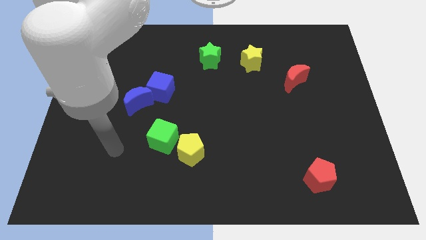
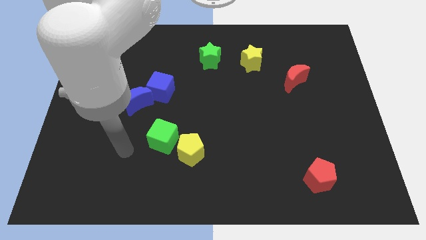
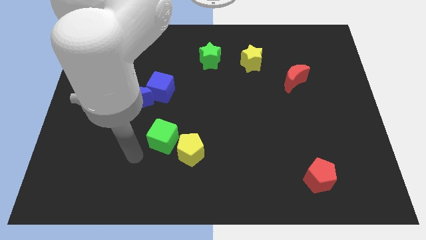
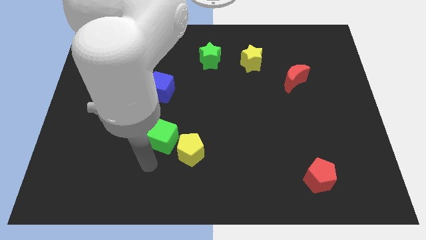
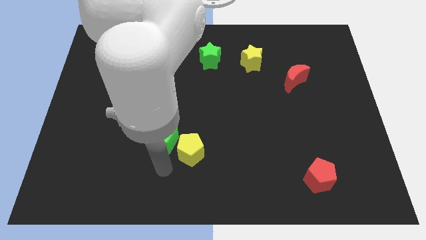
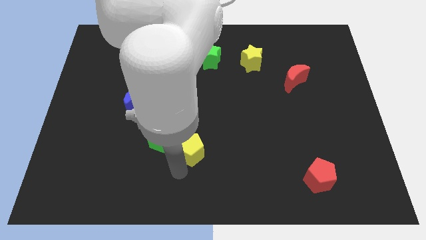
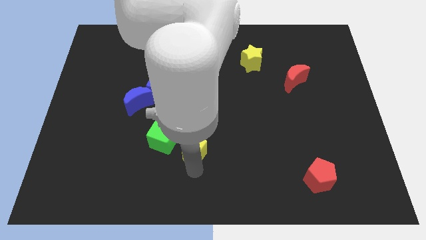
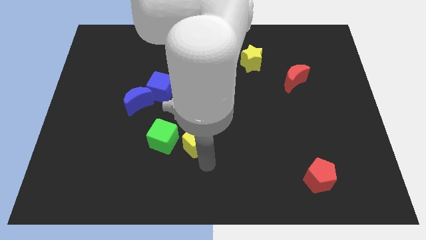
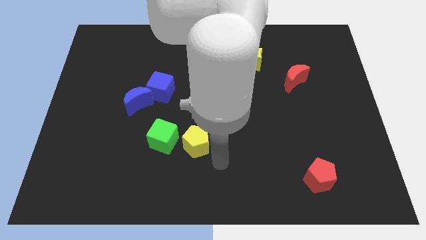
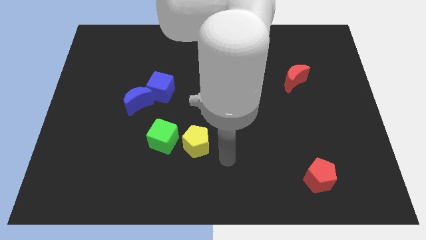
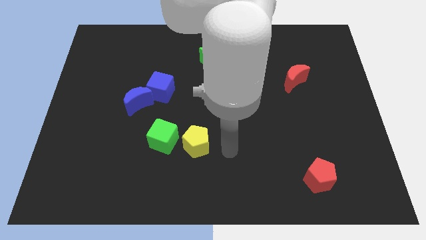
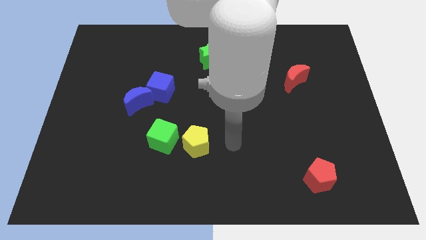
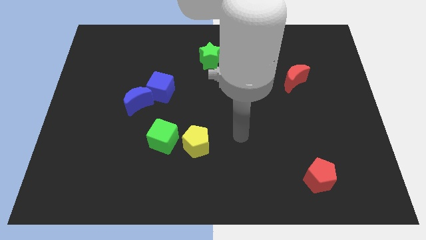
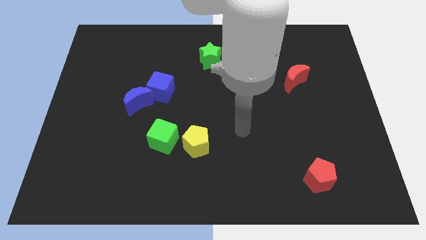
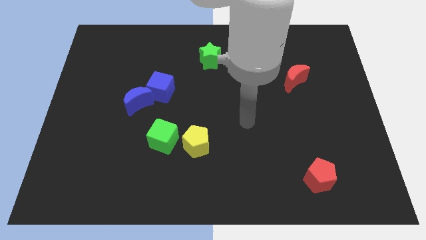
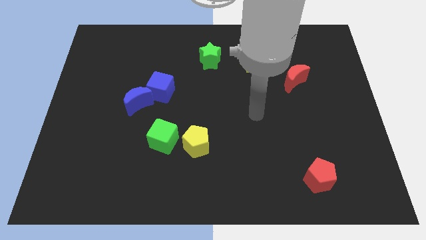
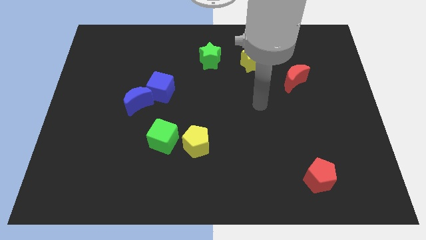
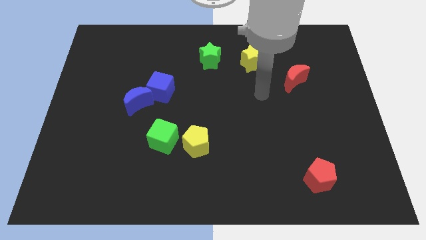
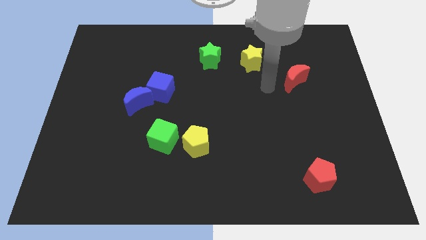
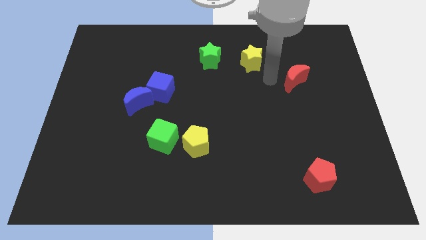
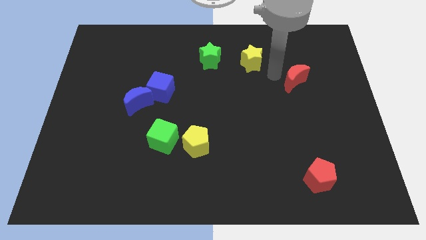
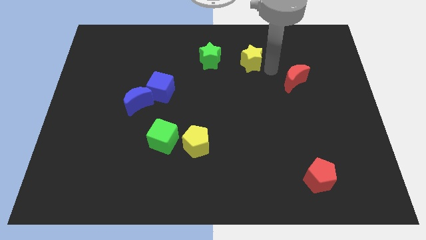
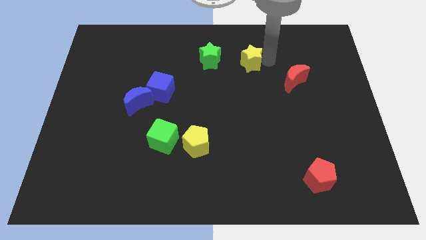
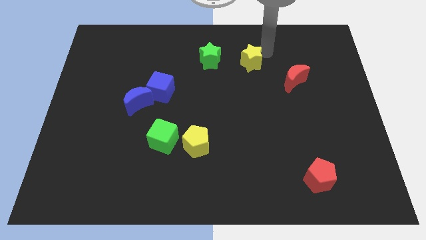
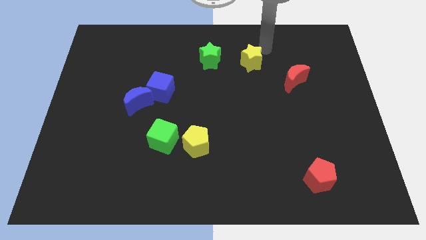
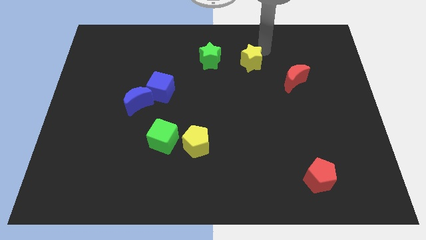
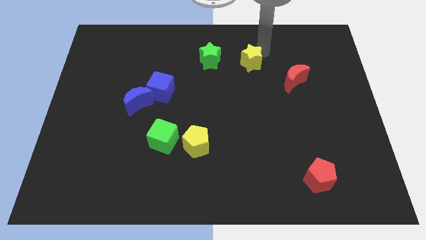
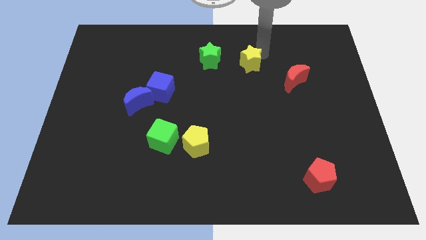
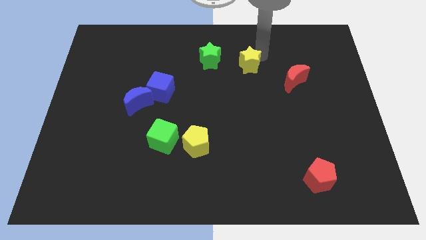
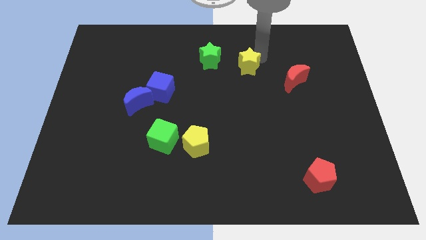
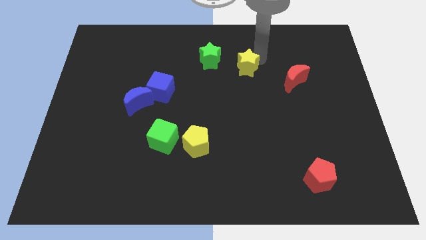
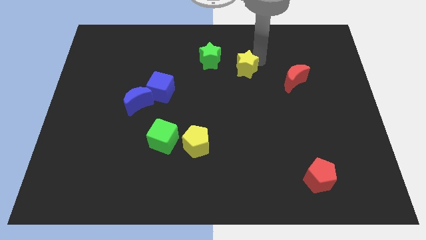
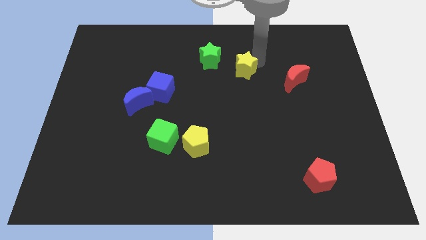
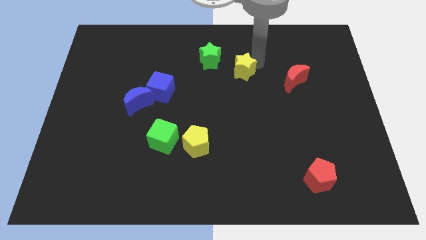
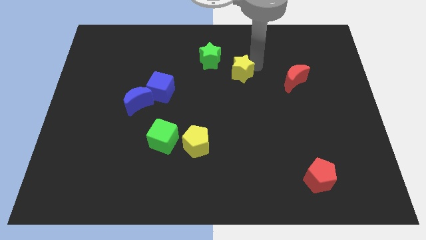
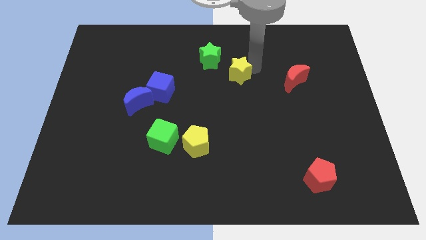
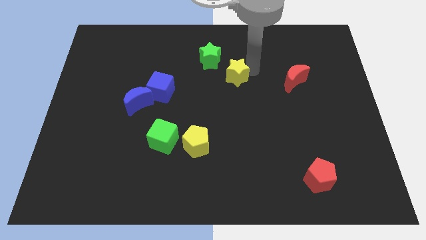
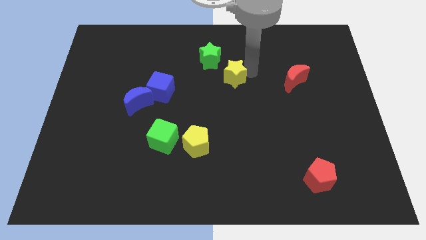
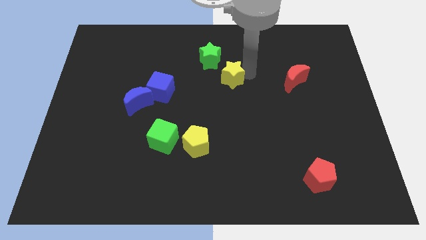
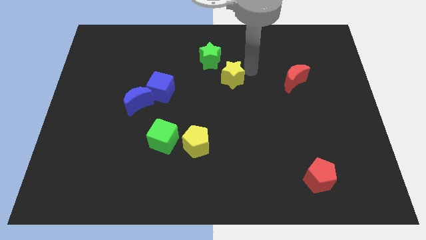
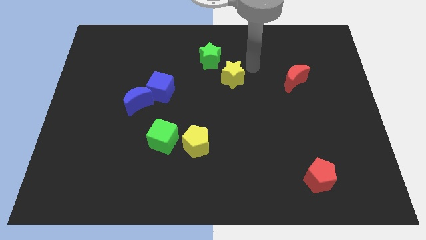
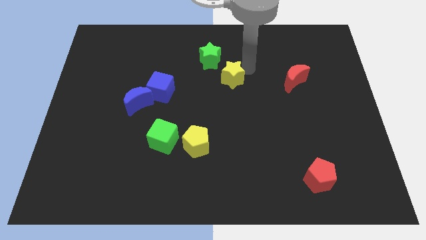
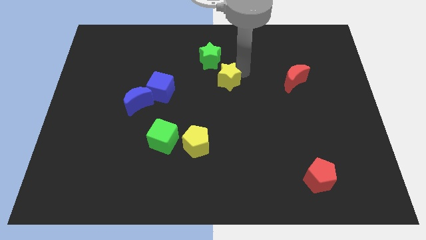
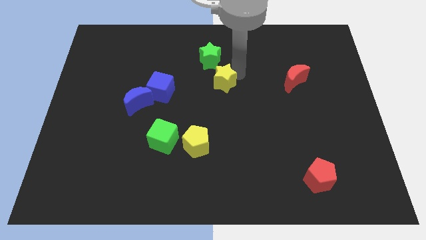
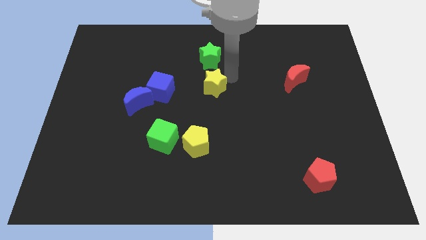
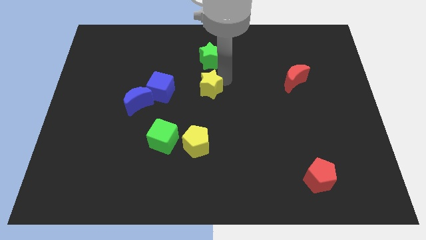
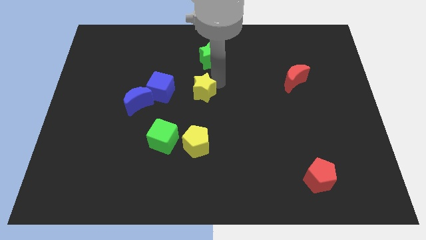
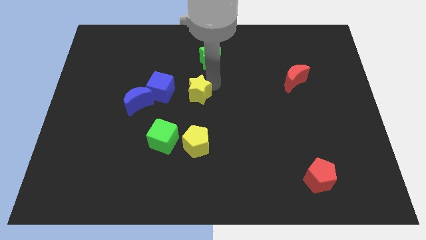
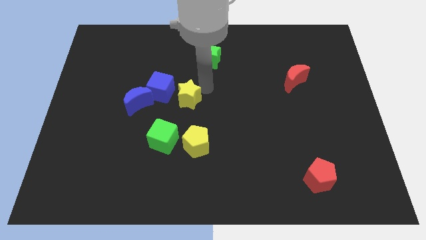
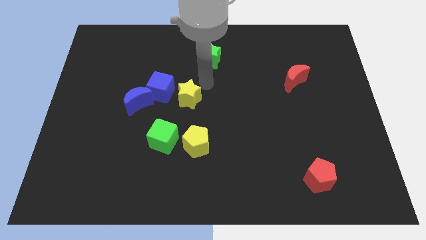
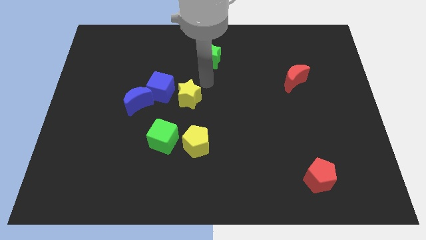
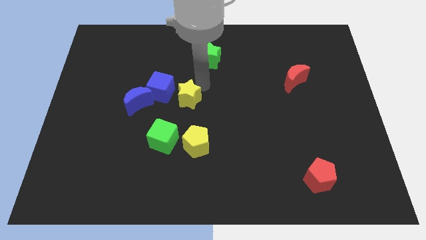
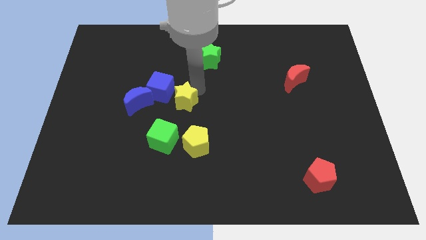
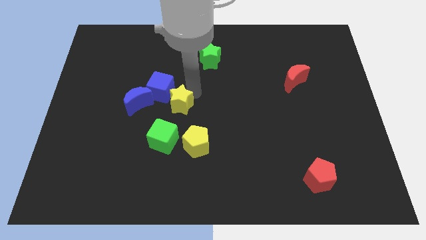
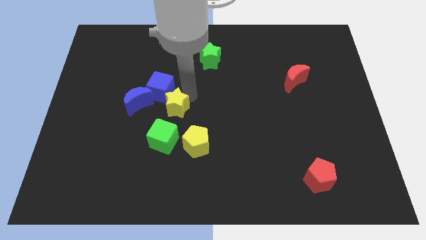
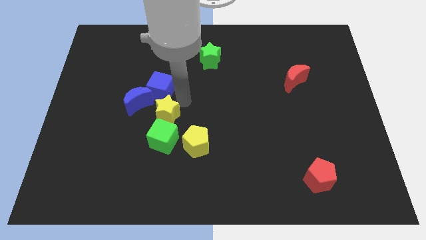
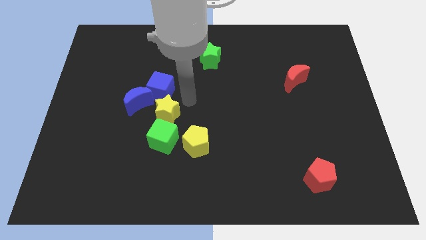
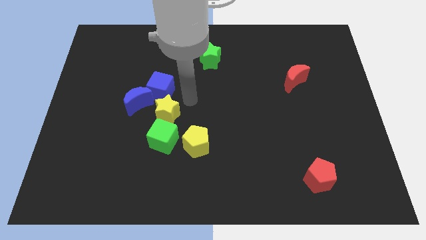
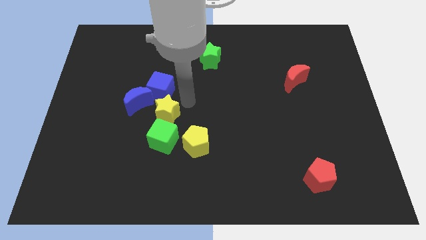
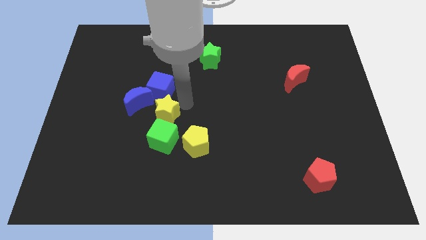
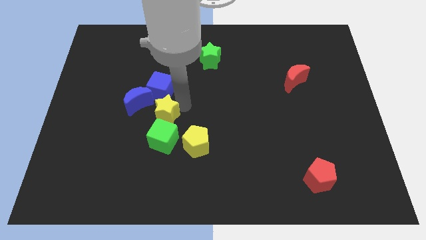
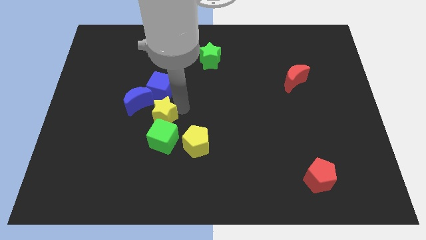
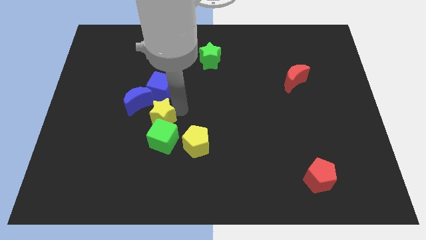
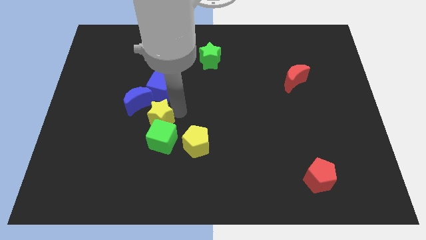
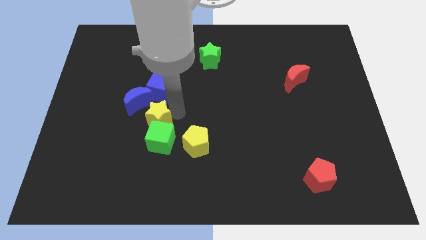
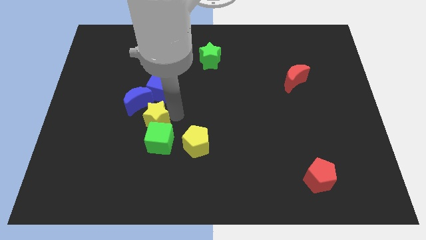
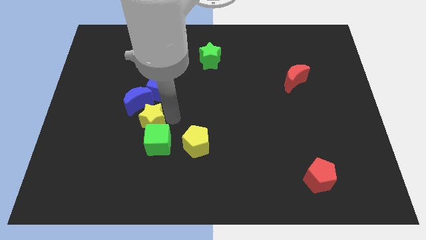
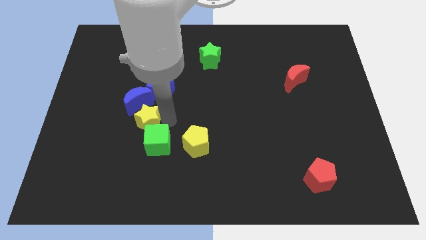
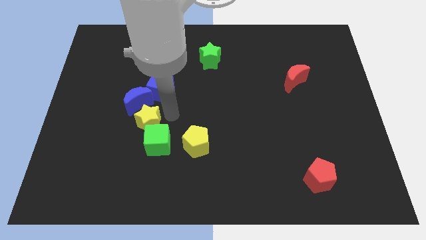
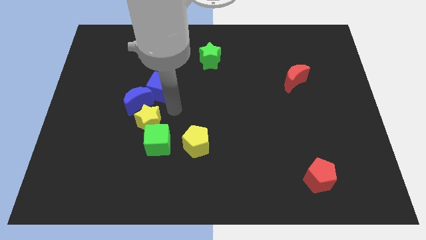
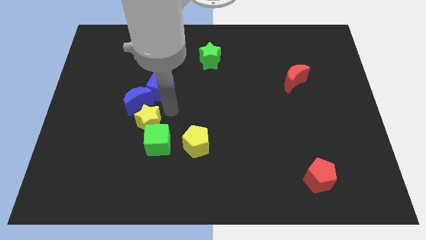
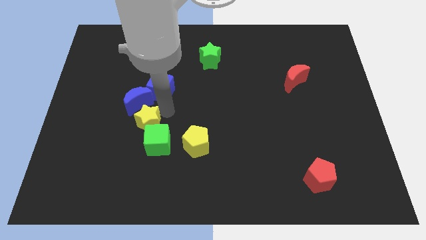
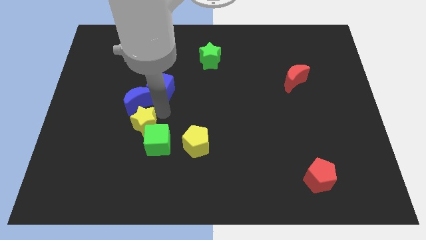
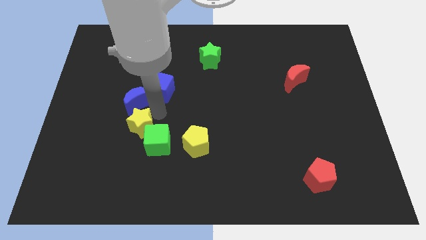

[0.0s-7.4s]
push the yellow star to the left of the green cube
